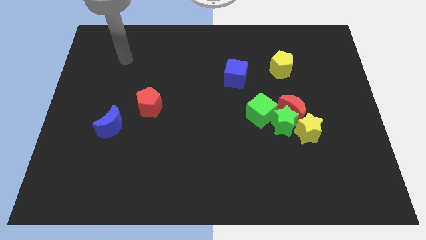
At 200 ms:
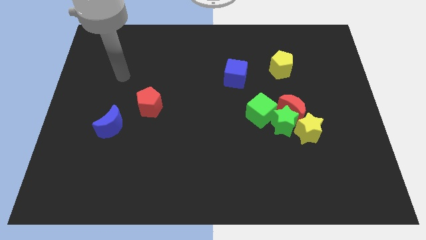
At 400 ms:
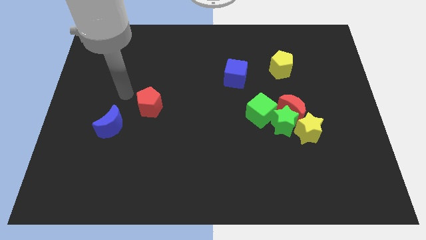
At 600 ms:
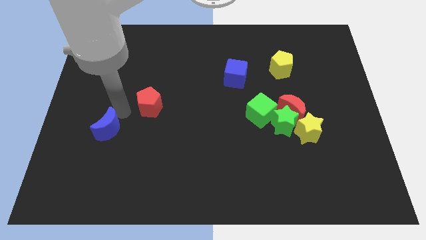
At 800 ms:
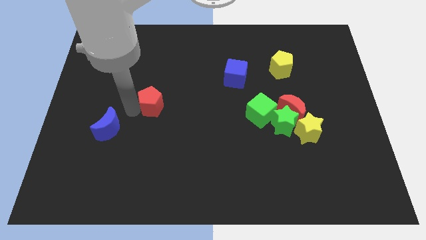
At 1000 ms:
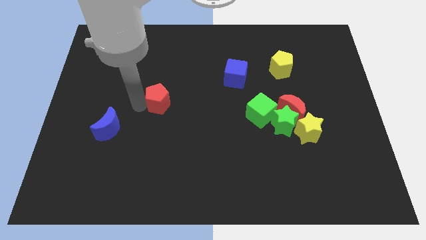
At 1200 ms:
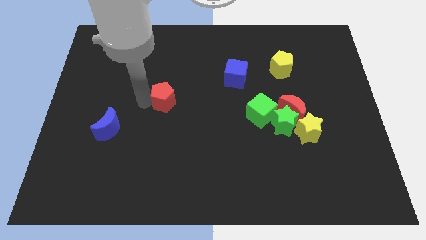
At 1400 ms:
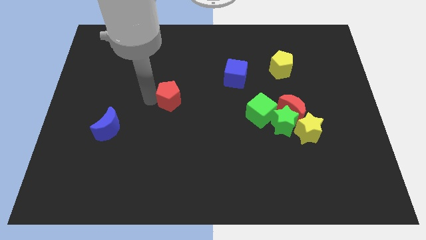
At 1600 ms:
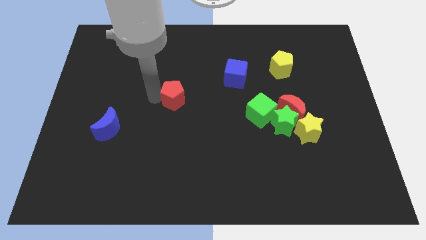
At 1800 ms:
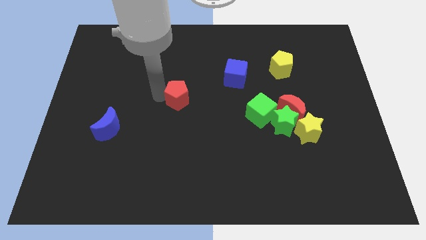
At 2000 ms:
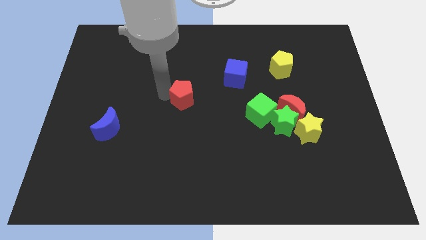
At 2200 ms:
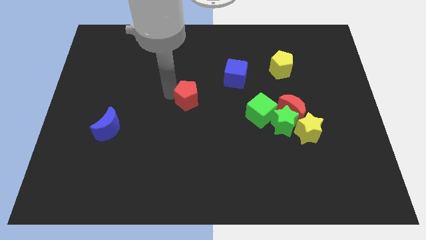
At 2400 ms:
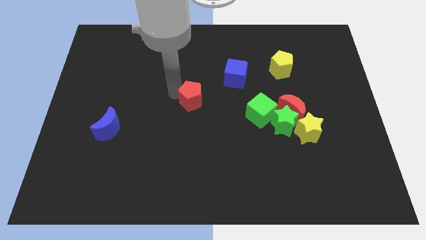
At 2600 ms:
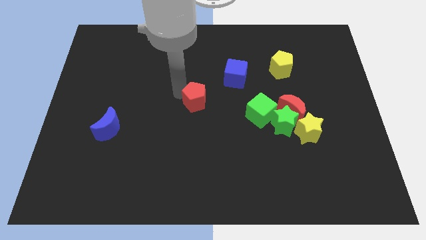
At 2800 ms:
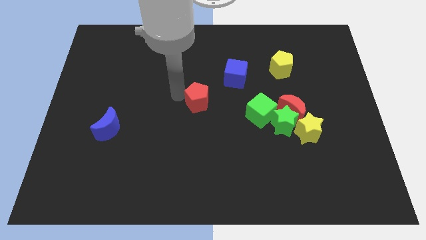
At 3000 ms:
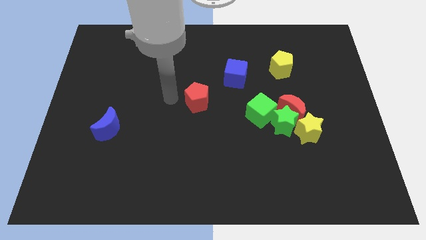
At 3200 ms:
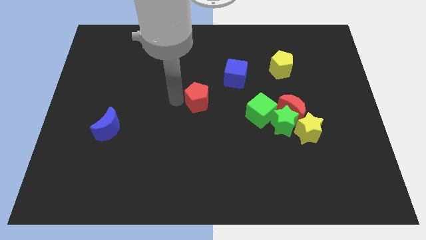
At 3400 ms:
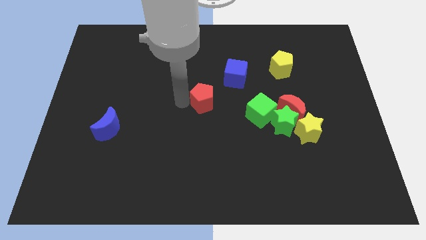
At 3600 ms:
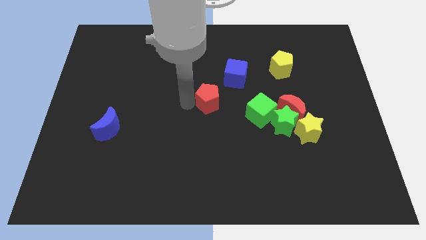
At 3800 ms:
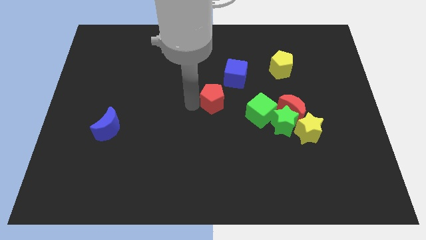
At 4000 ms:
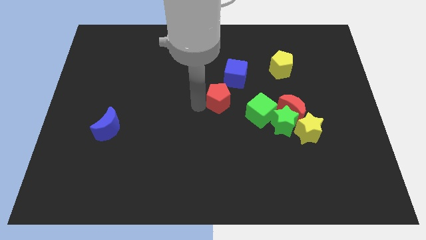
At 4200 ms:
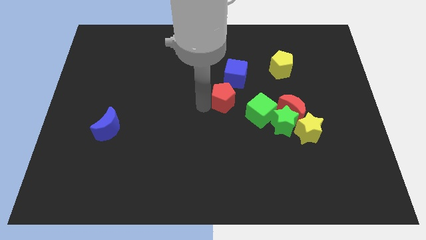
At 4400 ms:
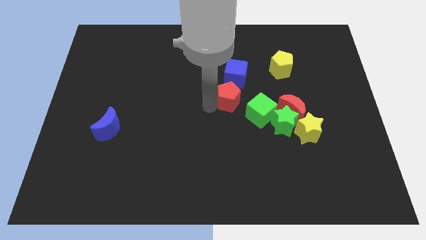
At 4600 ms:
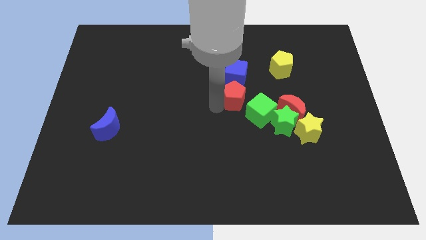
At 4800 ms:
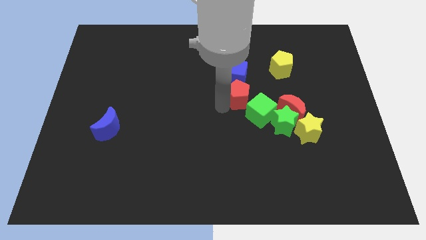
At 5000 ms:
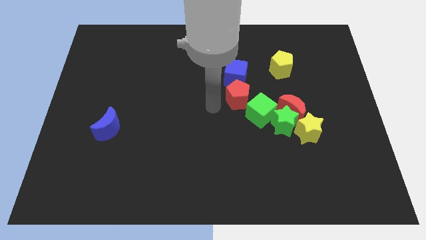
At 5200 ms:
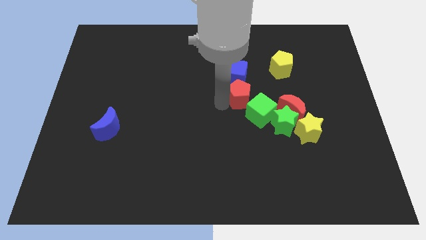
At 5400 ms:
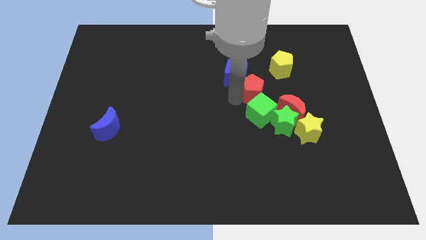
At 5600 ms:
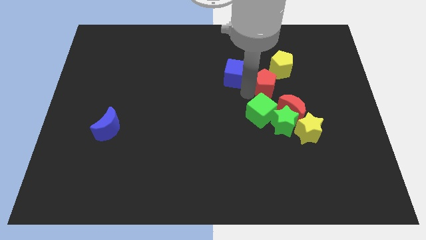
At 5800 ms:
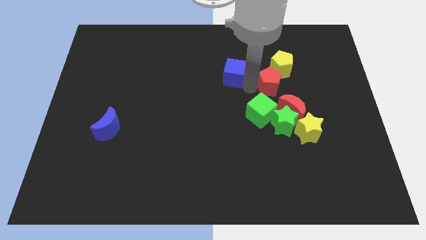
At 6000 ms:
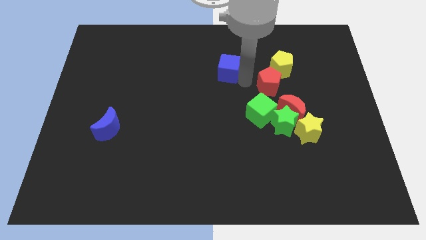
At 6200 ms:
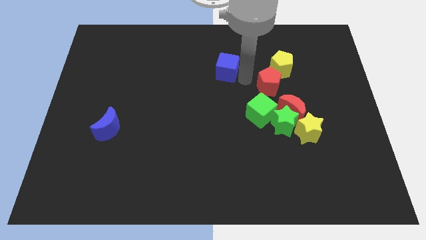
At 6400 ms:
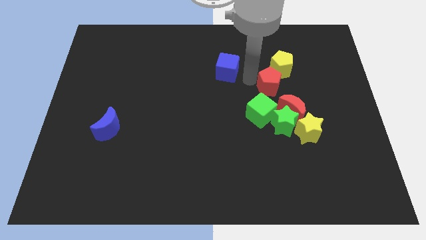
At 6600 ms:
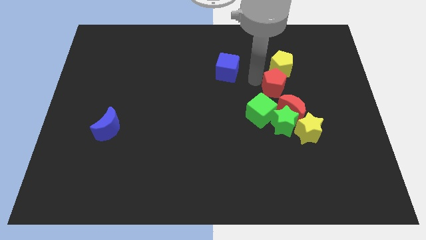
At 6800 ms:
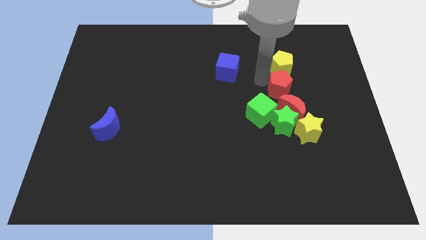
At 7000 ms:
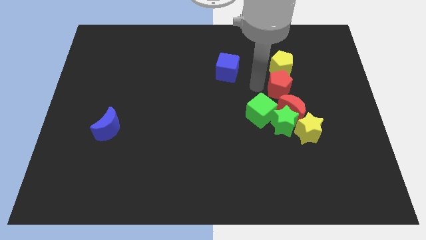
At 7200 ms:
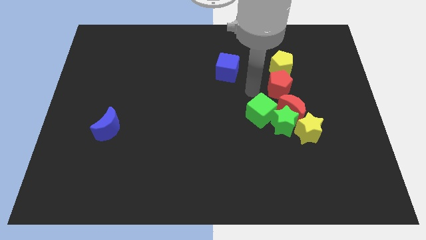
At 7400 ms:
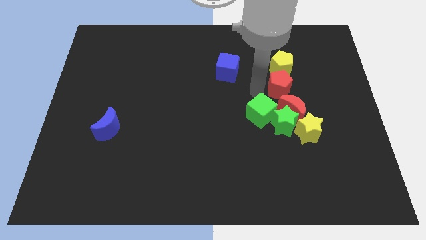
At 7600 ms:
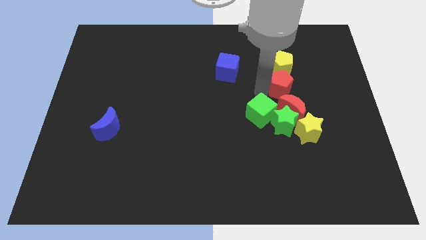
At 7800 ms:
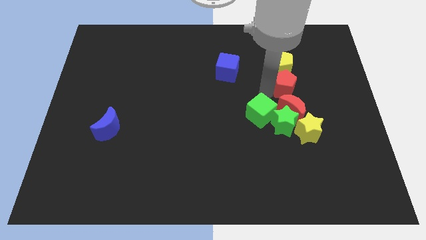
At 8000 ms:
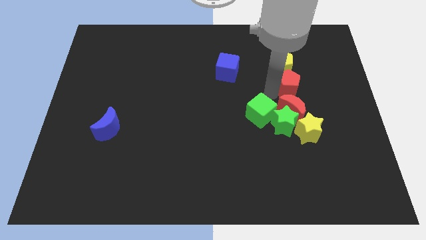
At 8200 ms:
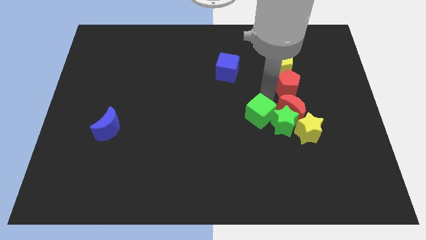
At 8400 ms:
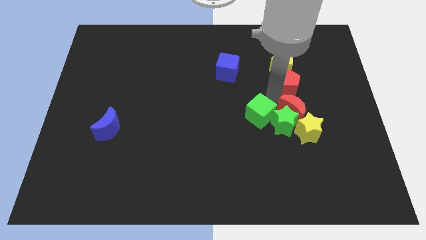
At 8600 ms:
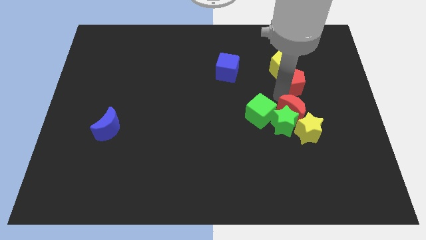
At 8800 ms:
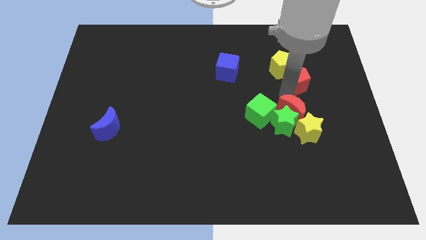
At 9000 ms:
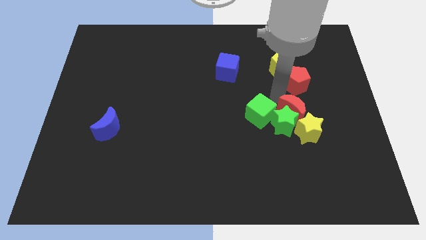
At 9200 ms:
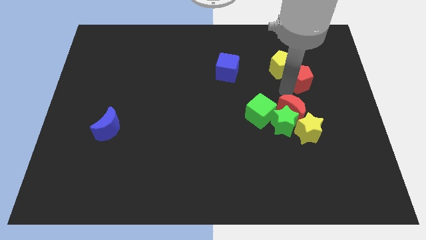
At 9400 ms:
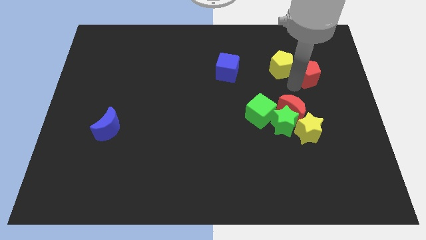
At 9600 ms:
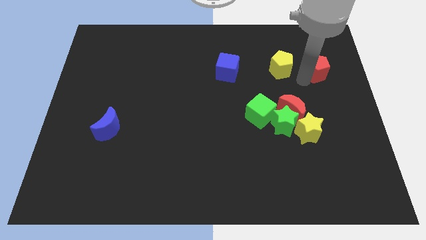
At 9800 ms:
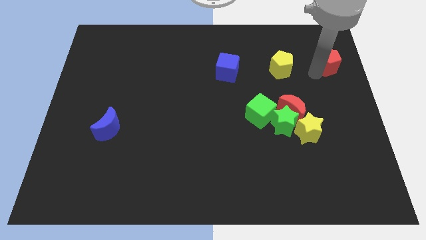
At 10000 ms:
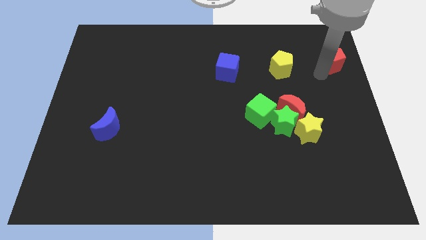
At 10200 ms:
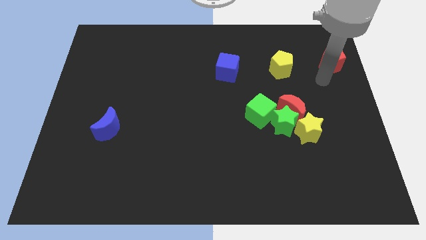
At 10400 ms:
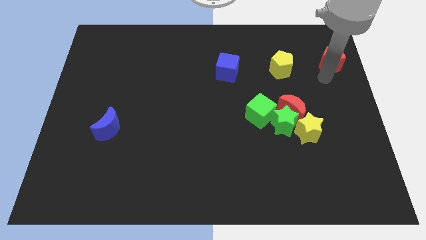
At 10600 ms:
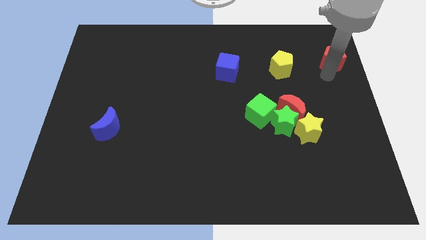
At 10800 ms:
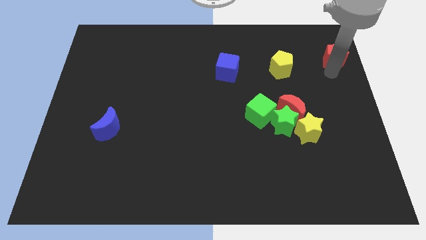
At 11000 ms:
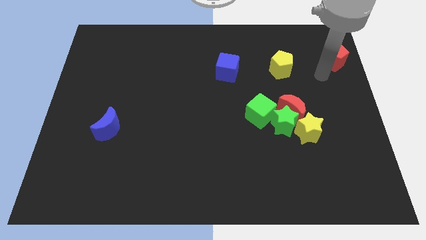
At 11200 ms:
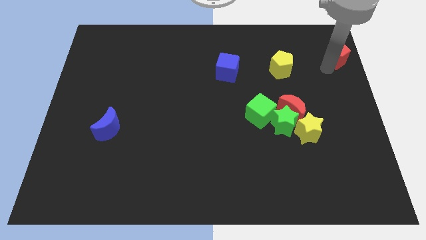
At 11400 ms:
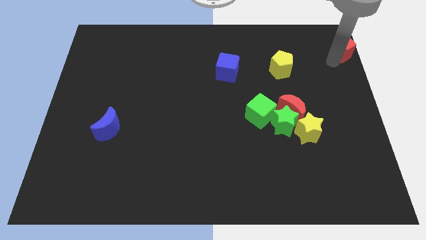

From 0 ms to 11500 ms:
push the red pentagon to the top right
